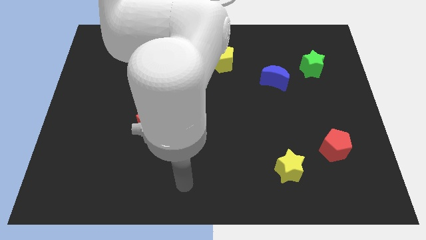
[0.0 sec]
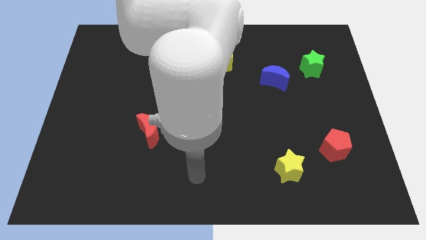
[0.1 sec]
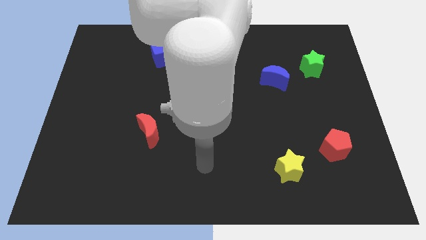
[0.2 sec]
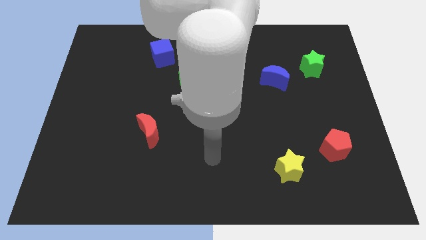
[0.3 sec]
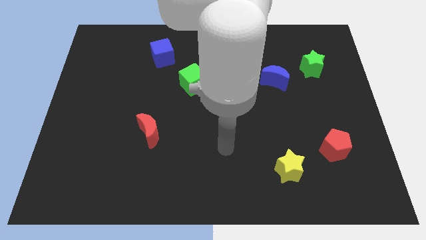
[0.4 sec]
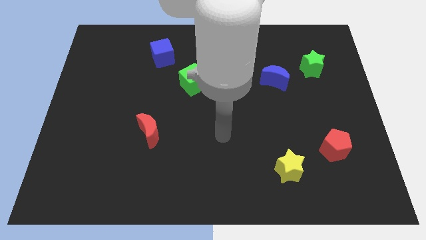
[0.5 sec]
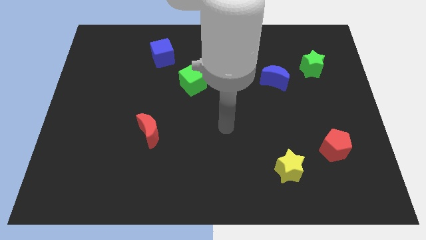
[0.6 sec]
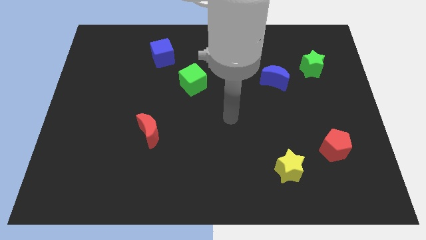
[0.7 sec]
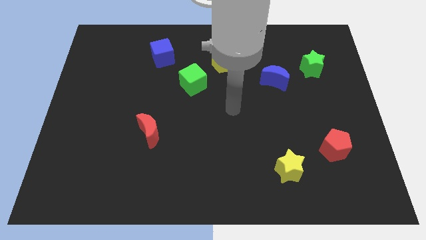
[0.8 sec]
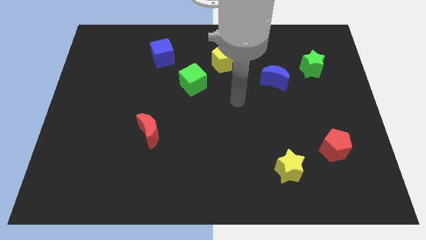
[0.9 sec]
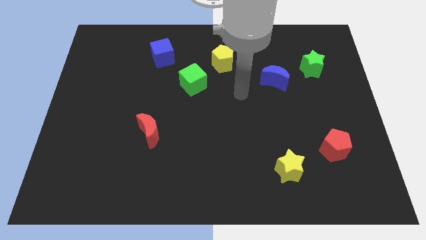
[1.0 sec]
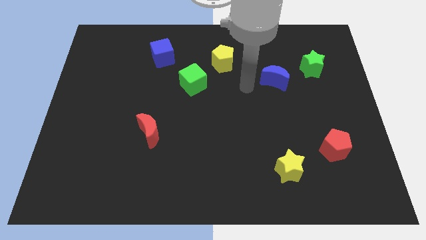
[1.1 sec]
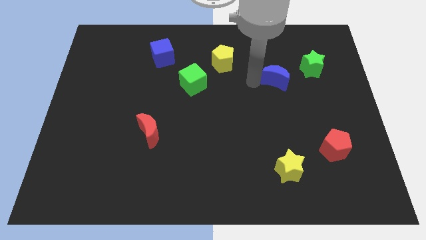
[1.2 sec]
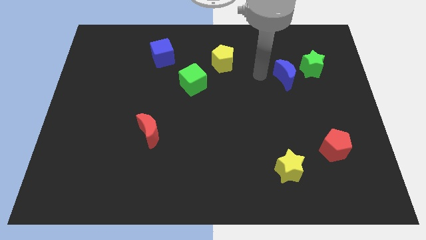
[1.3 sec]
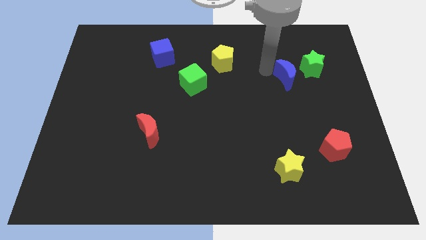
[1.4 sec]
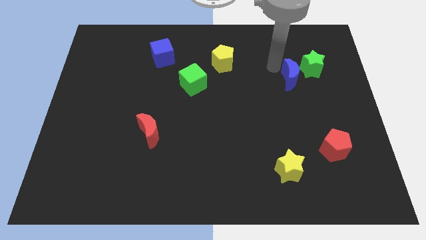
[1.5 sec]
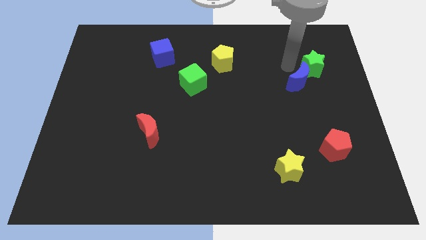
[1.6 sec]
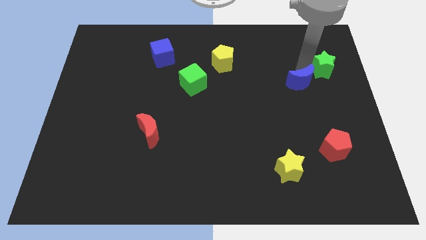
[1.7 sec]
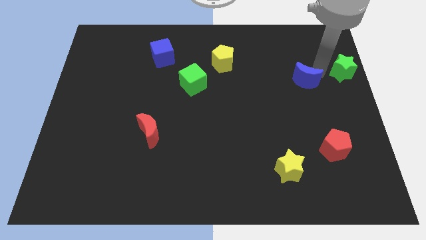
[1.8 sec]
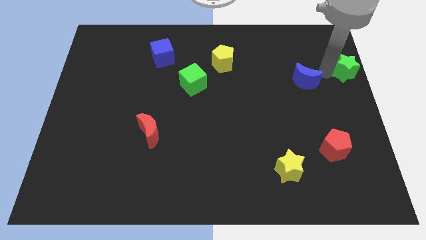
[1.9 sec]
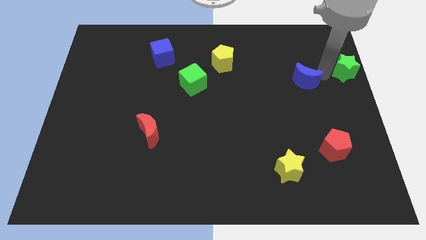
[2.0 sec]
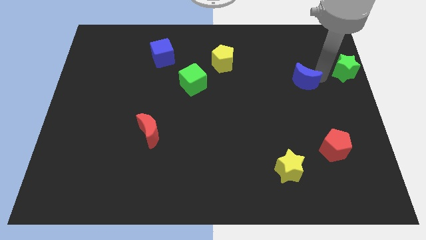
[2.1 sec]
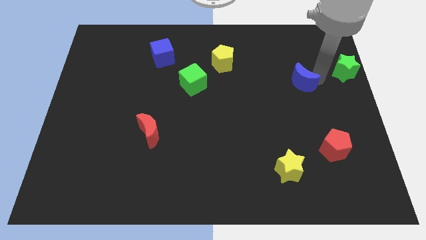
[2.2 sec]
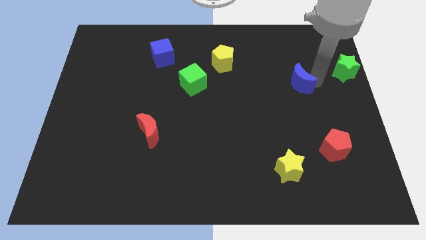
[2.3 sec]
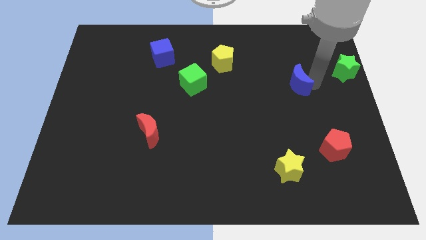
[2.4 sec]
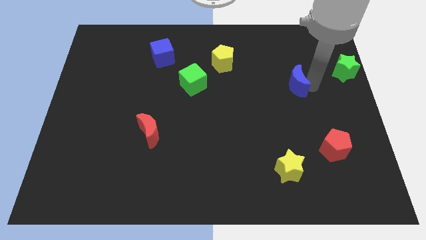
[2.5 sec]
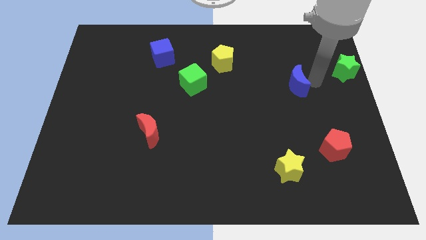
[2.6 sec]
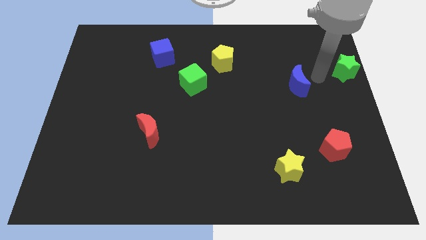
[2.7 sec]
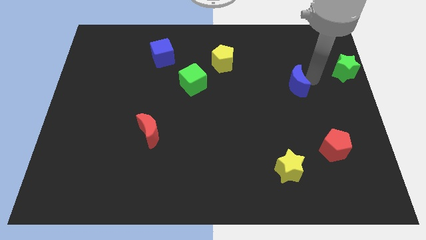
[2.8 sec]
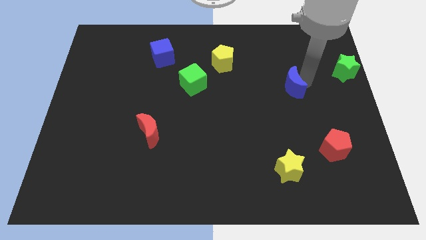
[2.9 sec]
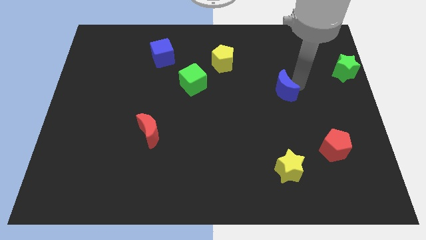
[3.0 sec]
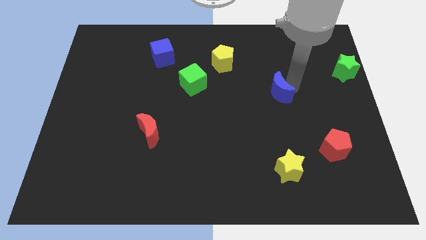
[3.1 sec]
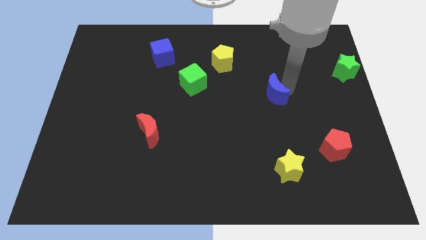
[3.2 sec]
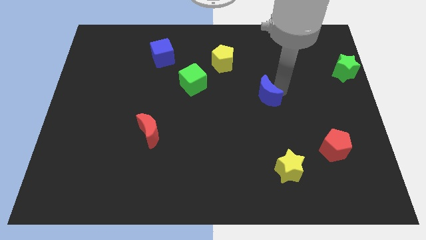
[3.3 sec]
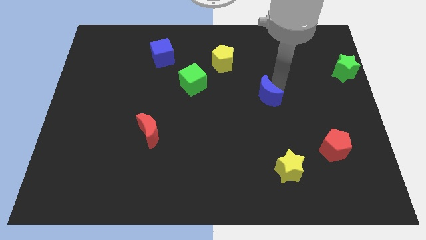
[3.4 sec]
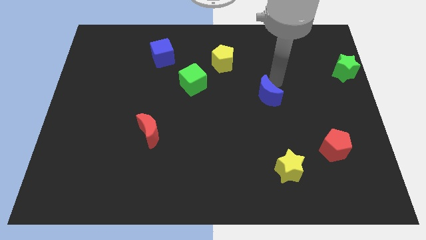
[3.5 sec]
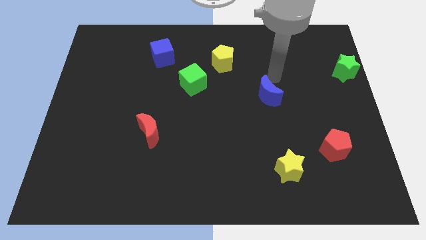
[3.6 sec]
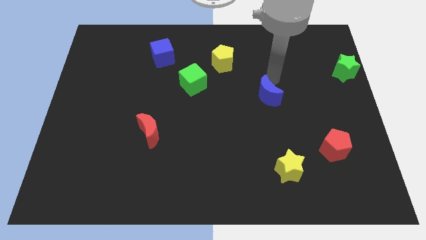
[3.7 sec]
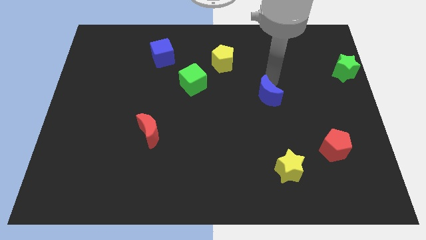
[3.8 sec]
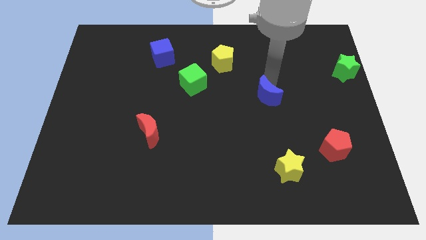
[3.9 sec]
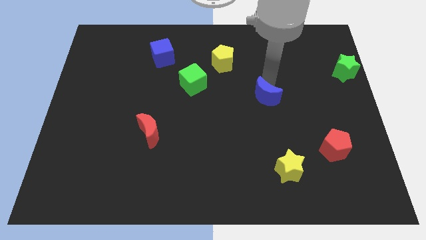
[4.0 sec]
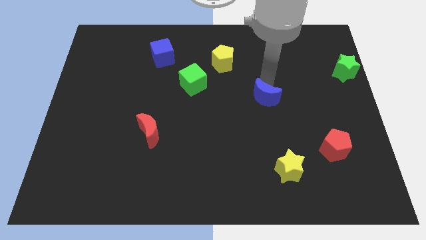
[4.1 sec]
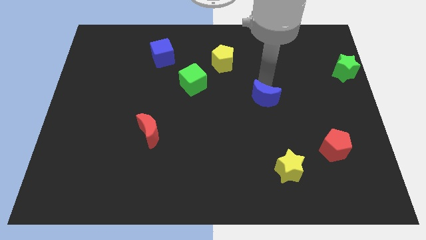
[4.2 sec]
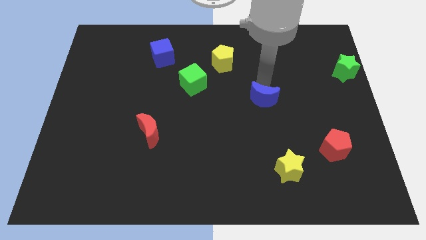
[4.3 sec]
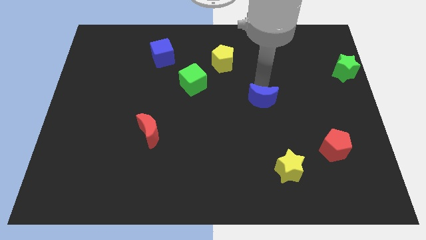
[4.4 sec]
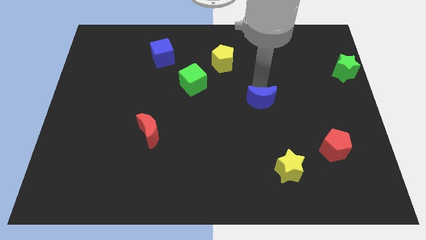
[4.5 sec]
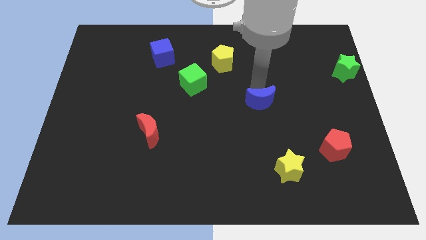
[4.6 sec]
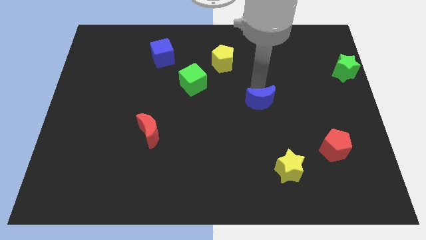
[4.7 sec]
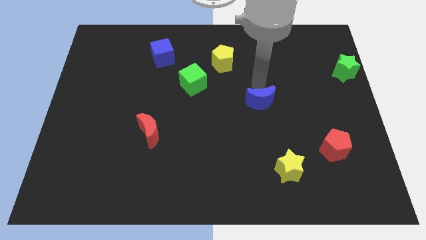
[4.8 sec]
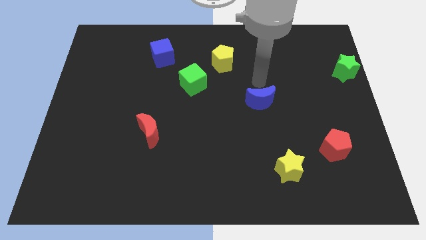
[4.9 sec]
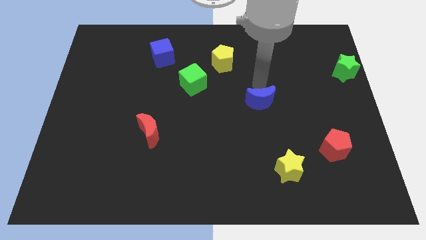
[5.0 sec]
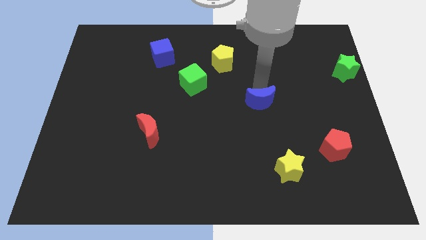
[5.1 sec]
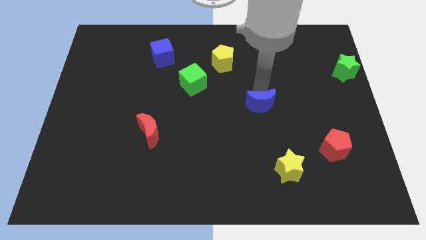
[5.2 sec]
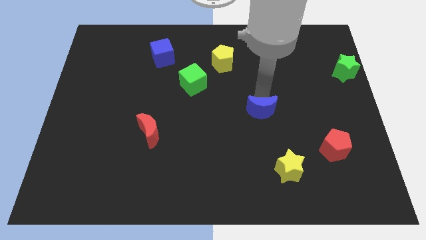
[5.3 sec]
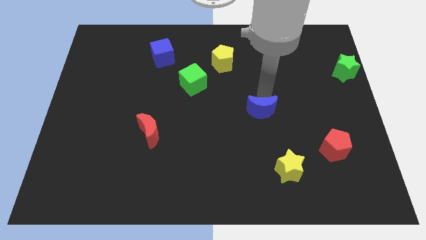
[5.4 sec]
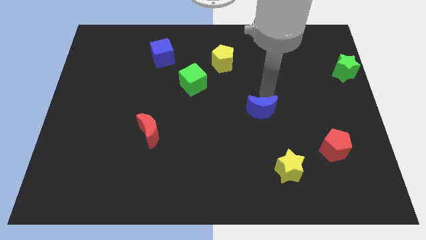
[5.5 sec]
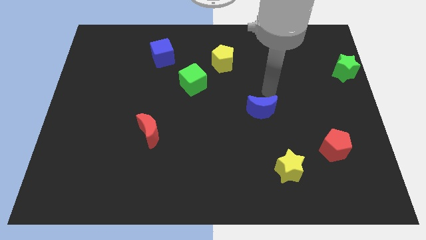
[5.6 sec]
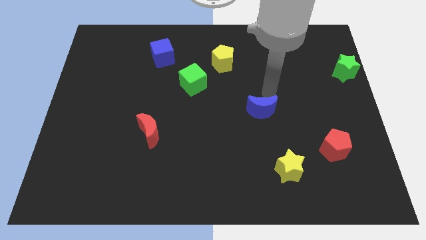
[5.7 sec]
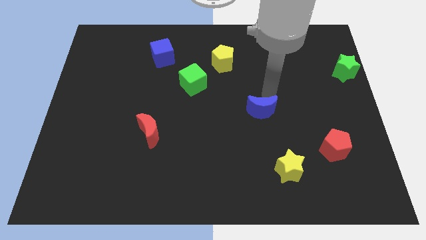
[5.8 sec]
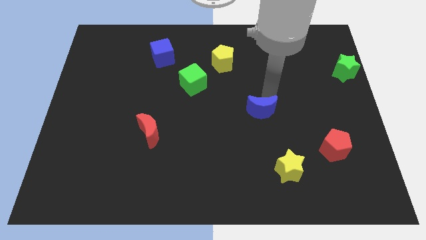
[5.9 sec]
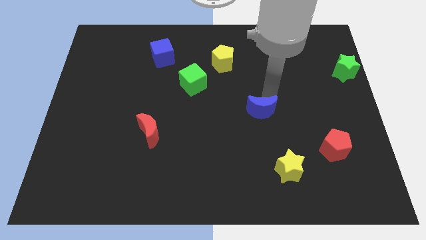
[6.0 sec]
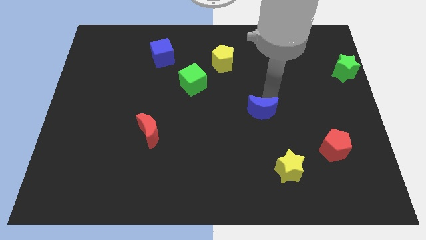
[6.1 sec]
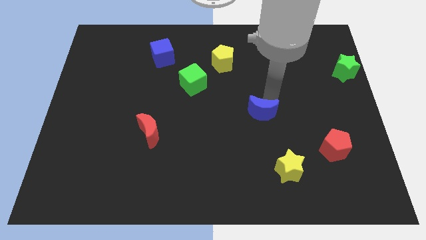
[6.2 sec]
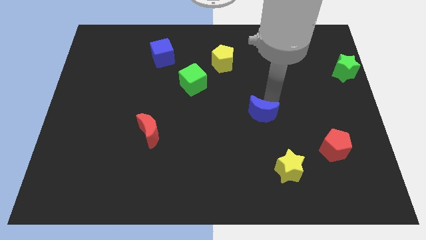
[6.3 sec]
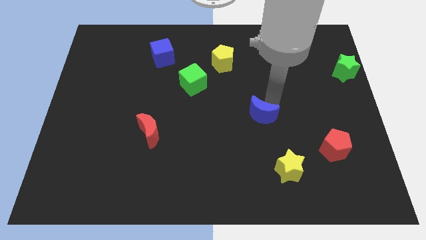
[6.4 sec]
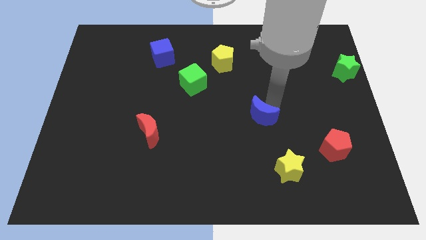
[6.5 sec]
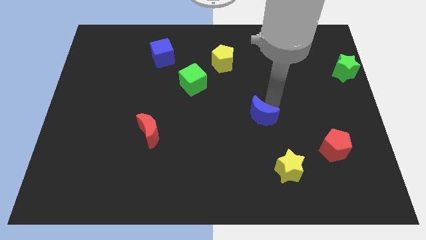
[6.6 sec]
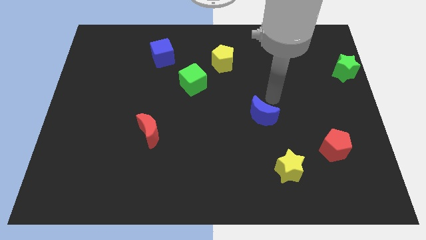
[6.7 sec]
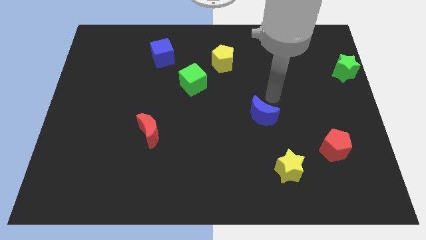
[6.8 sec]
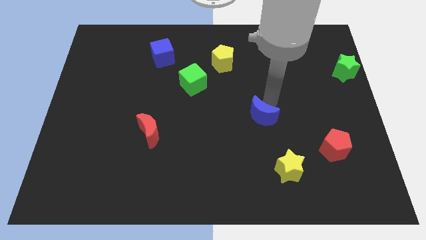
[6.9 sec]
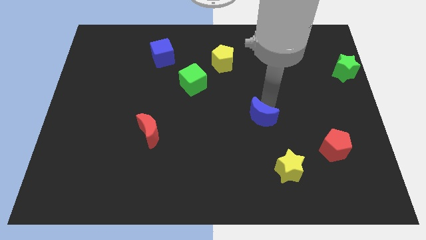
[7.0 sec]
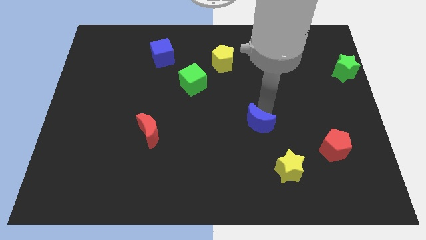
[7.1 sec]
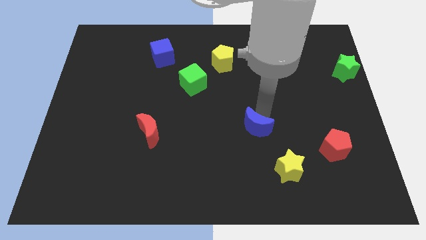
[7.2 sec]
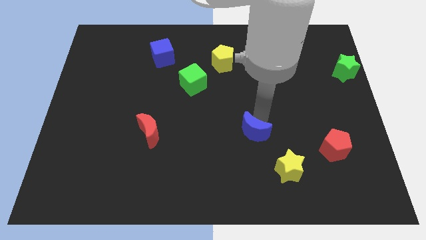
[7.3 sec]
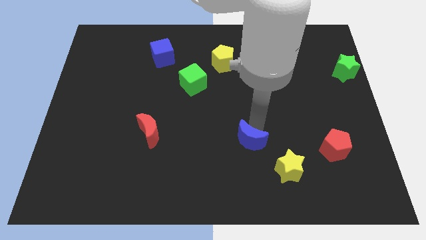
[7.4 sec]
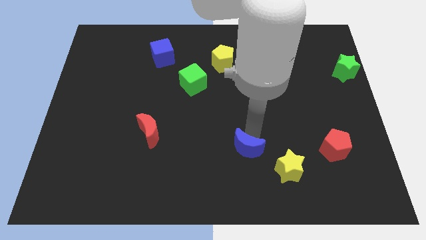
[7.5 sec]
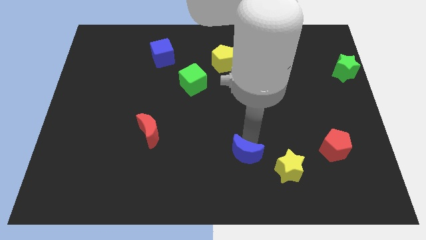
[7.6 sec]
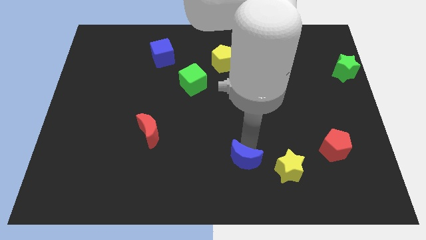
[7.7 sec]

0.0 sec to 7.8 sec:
slide the blue moon to the bottom
